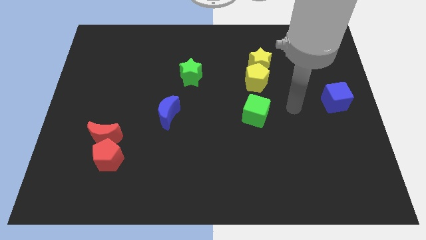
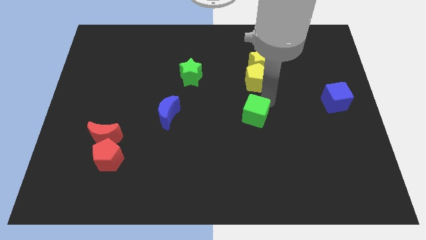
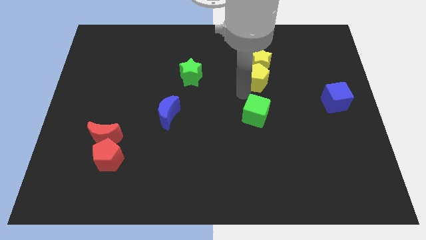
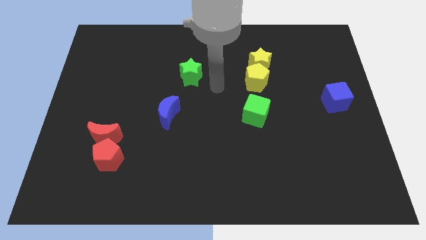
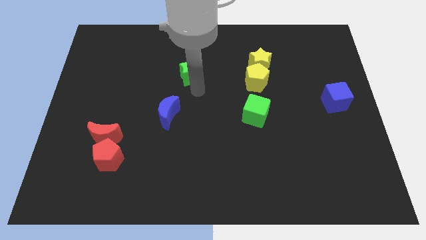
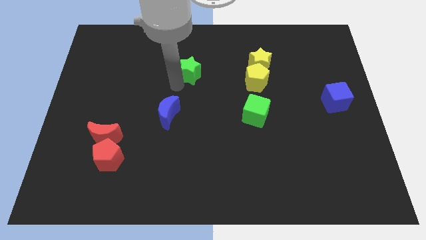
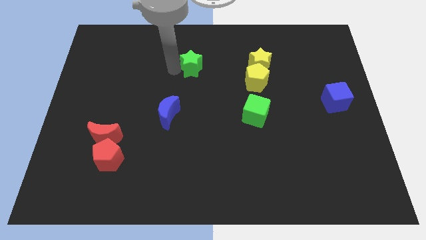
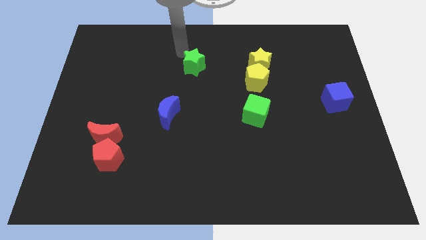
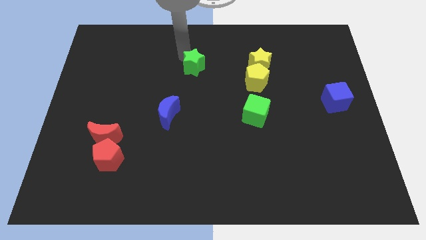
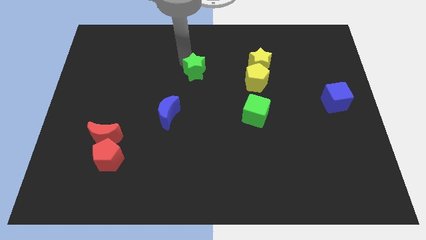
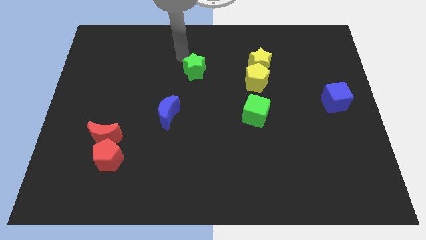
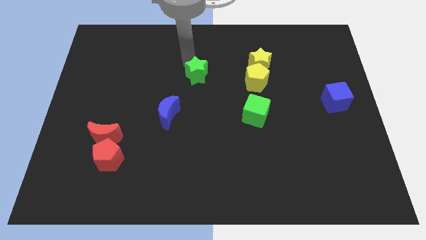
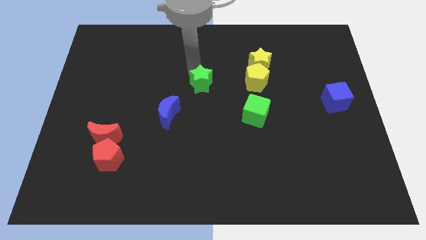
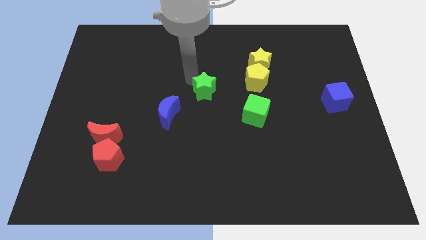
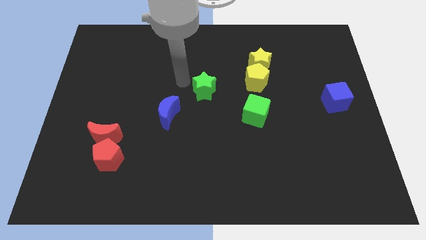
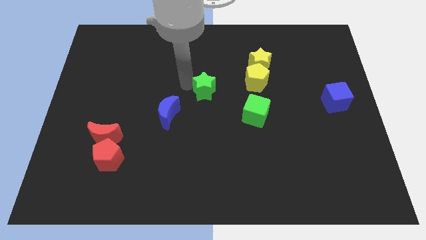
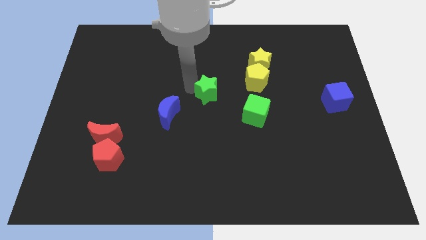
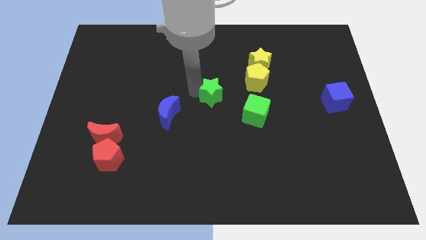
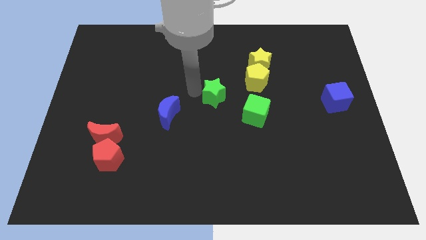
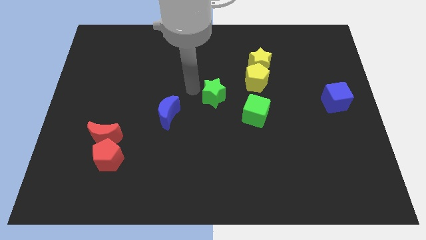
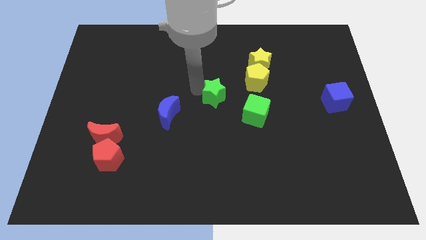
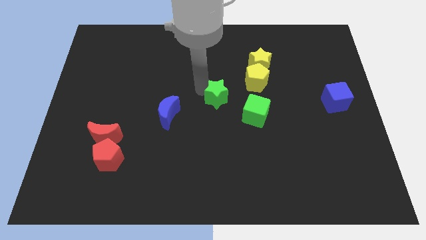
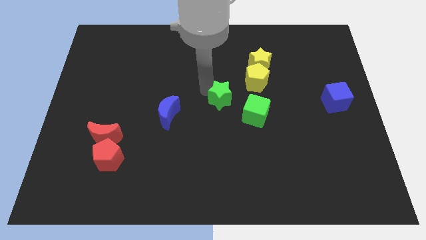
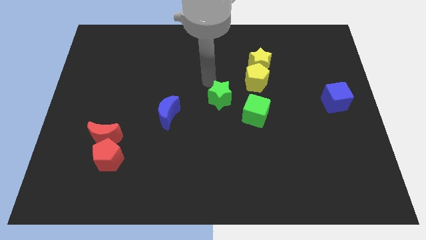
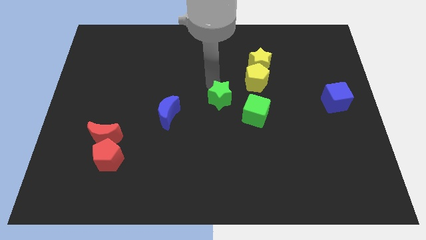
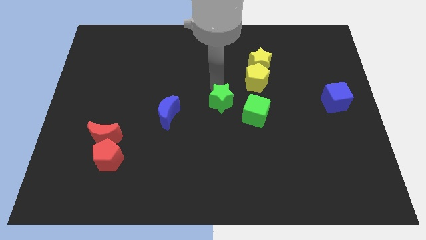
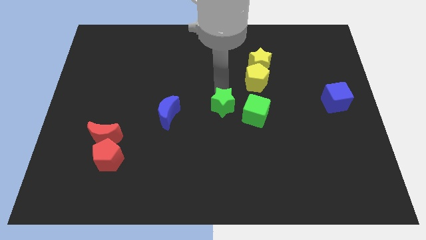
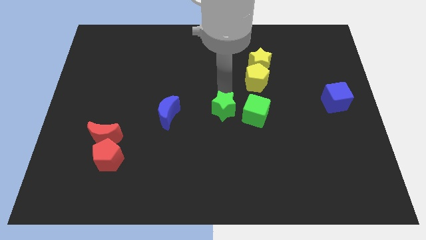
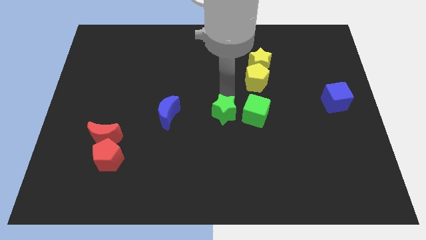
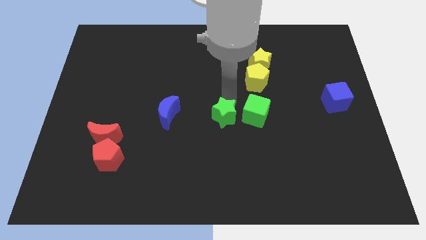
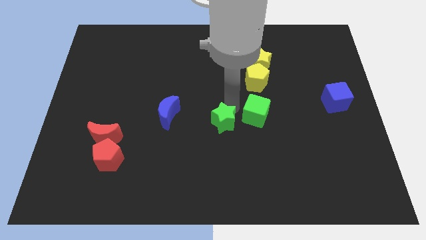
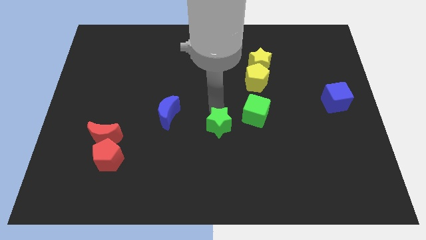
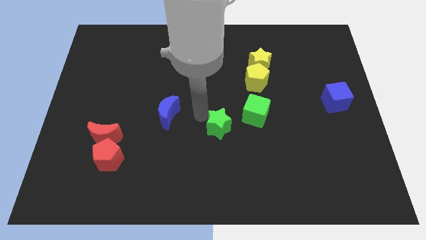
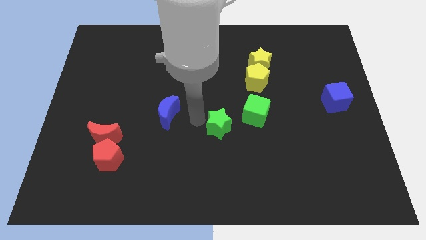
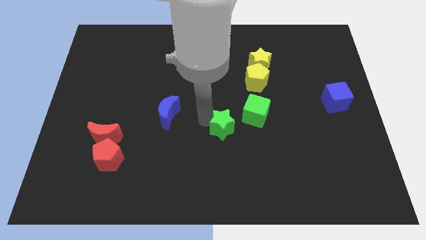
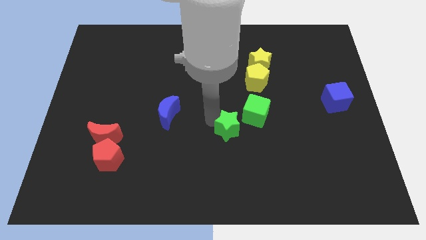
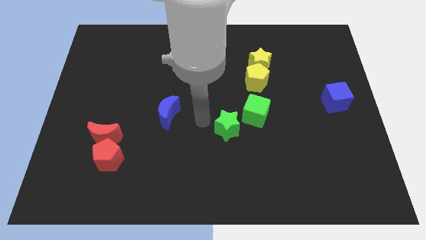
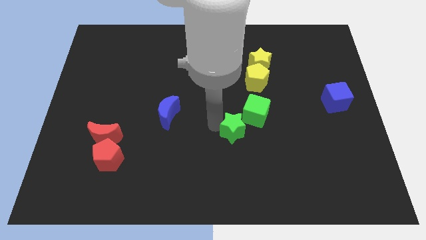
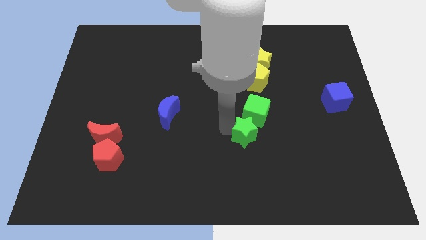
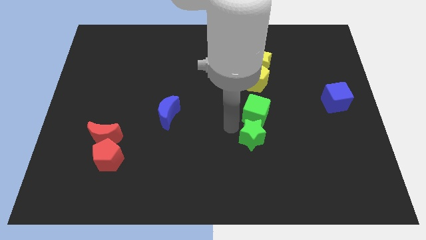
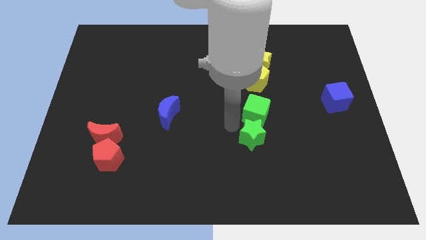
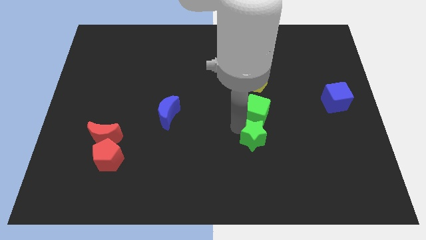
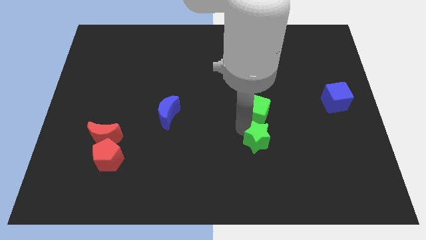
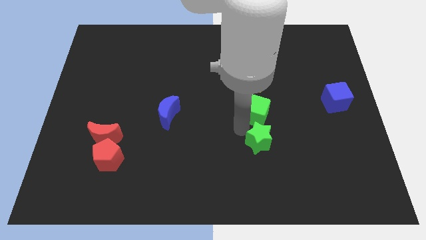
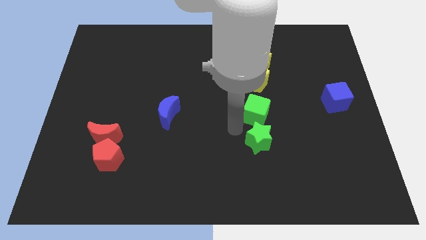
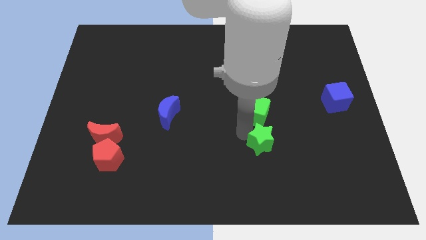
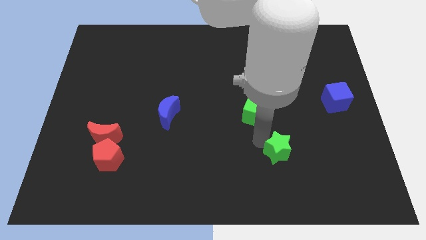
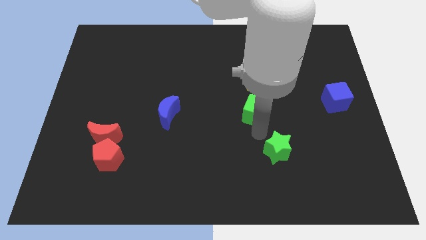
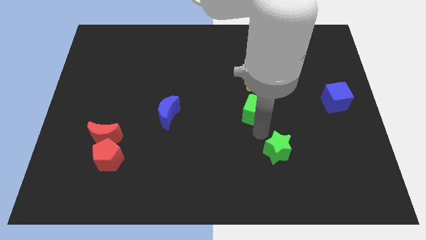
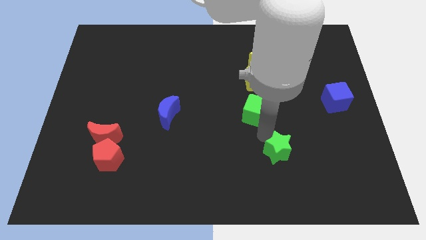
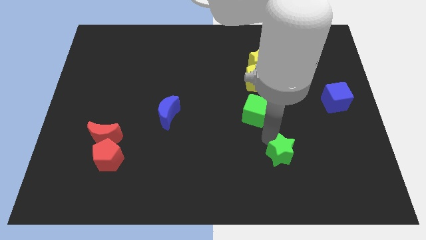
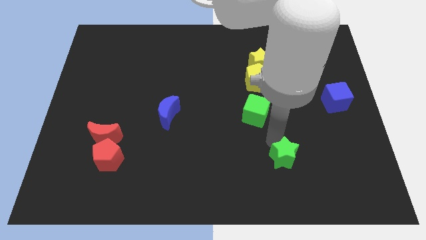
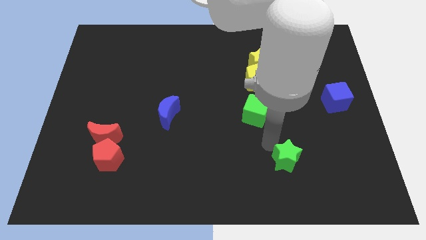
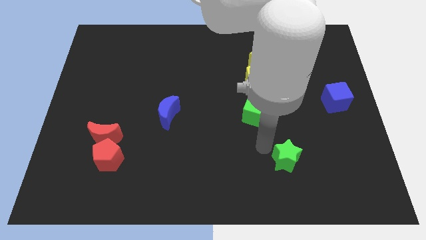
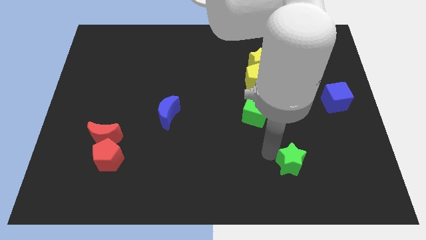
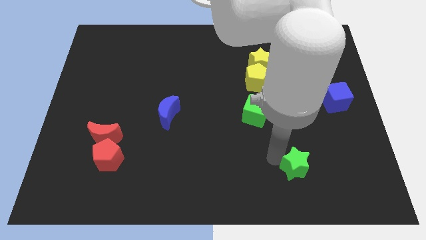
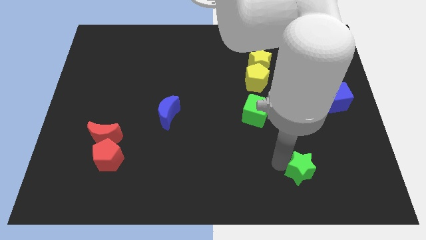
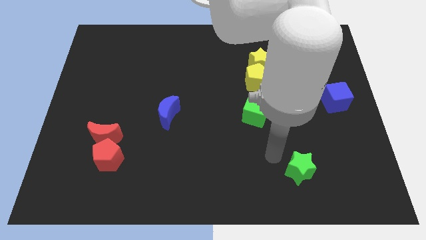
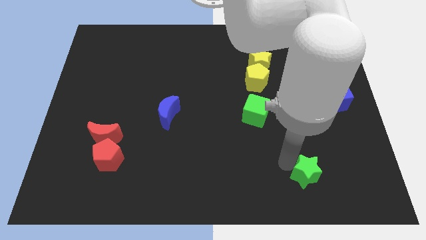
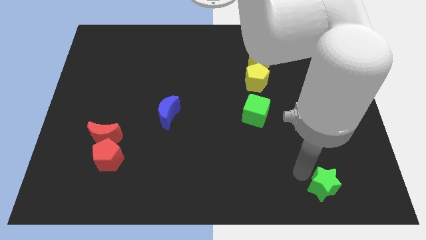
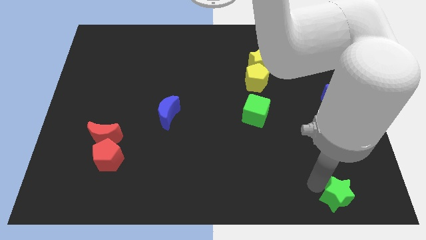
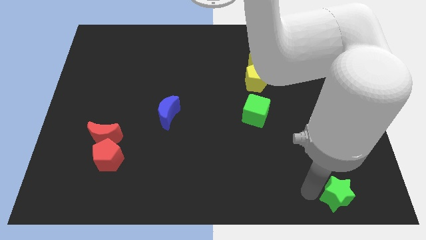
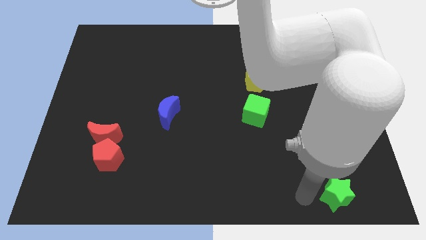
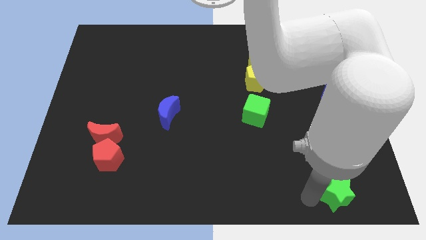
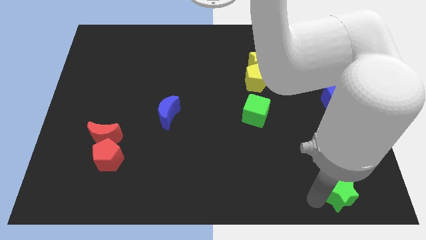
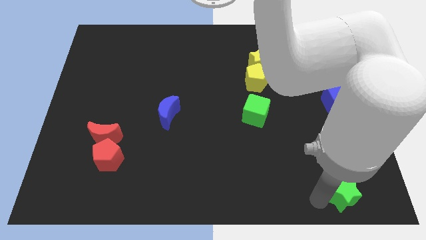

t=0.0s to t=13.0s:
slide the green star to the bottom right of the board
